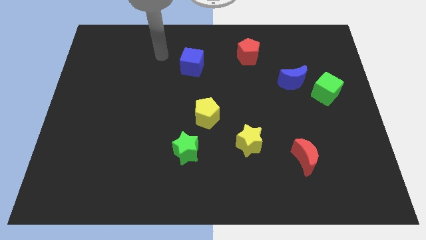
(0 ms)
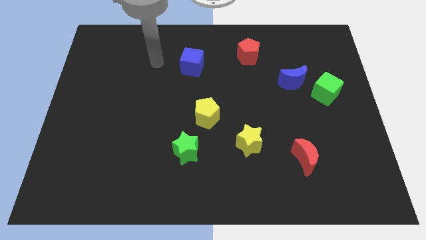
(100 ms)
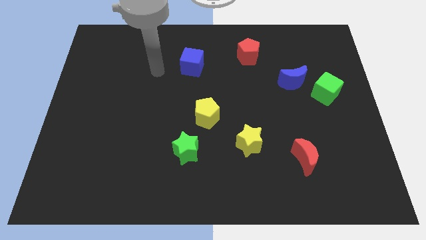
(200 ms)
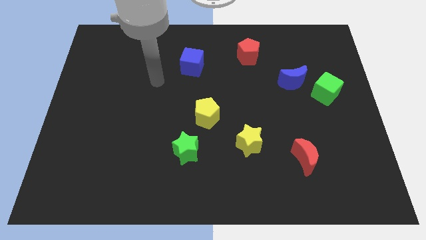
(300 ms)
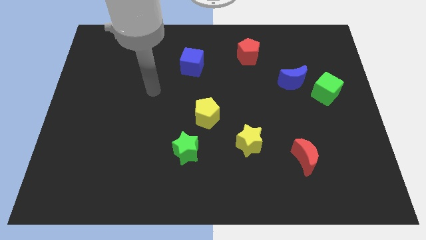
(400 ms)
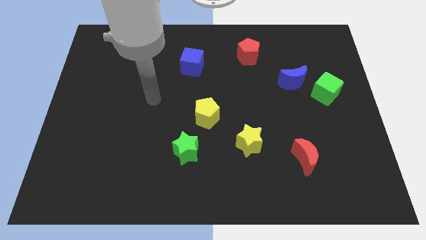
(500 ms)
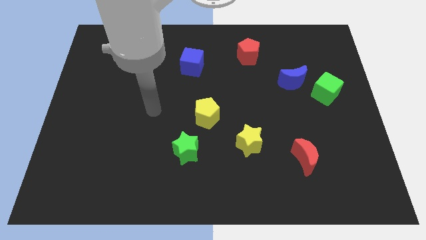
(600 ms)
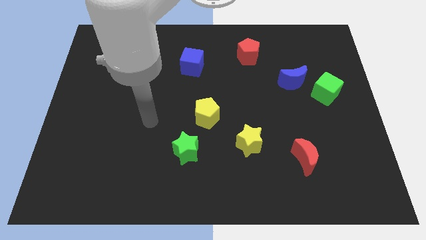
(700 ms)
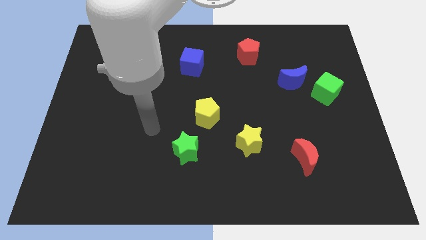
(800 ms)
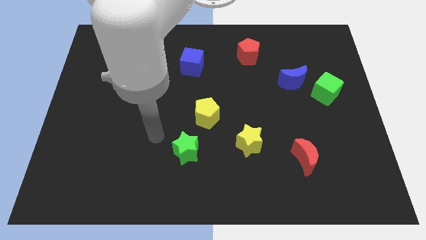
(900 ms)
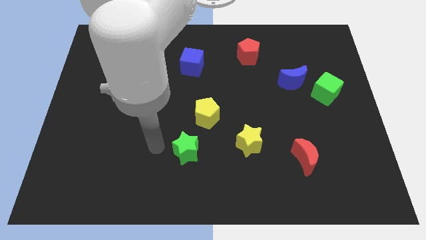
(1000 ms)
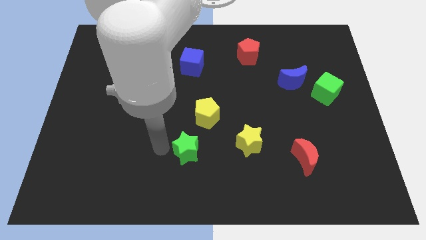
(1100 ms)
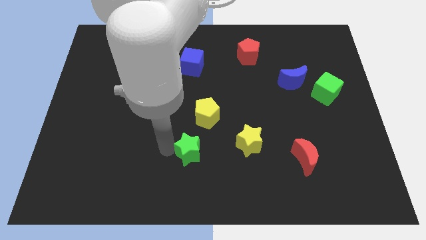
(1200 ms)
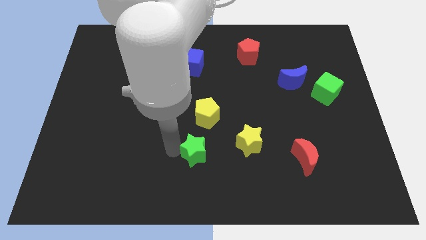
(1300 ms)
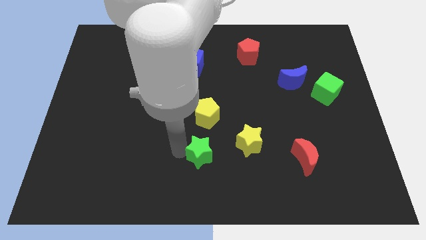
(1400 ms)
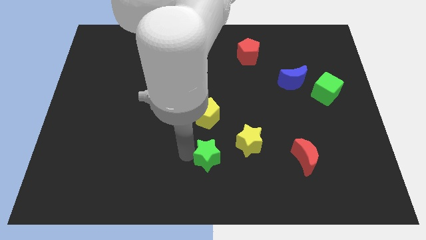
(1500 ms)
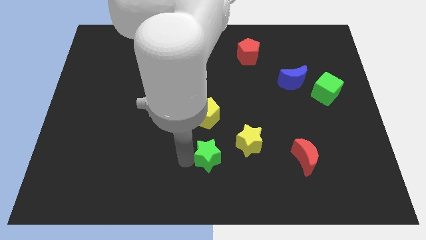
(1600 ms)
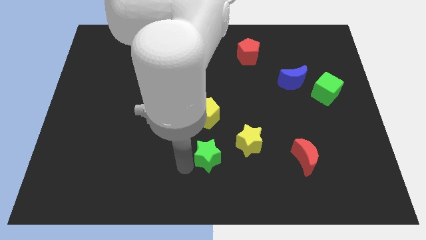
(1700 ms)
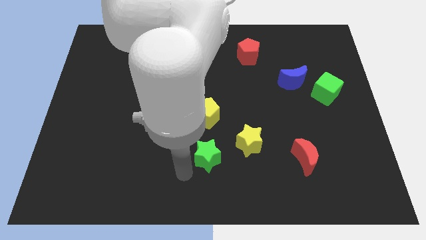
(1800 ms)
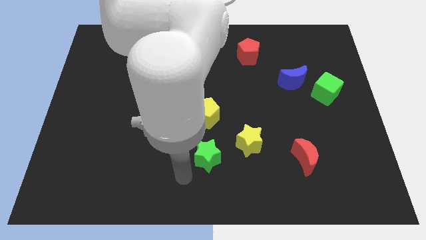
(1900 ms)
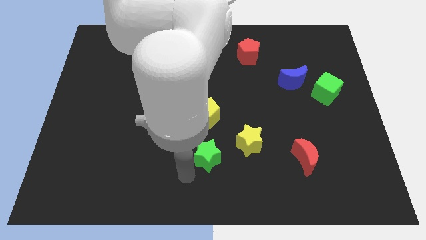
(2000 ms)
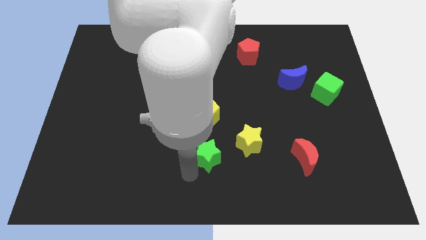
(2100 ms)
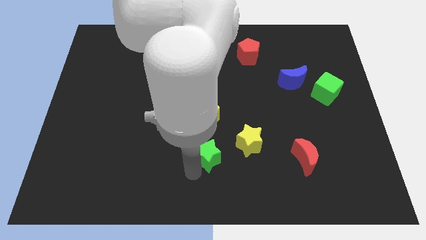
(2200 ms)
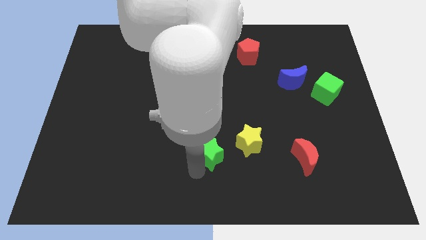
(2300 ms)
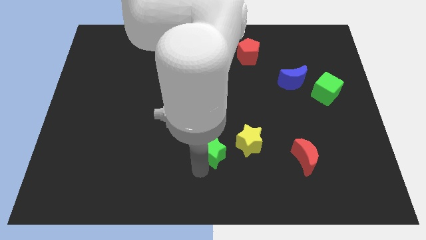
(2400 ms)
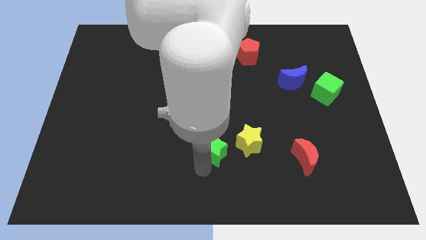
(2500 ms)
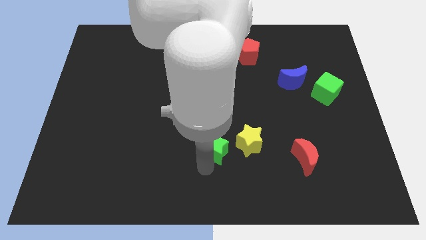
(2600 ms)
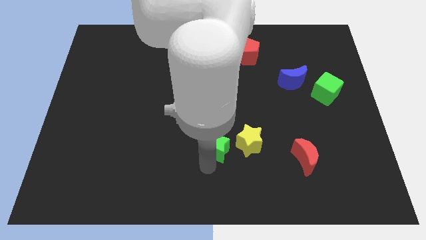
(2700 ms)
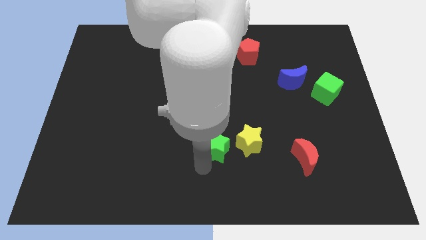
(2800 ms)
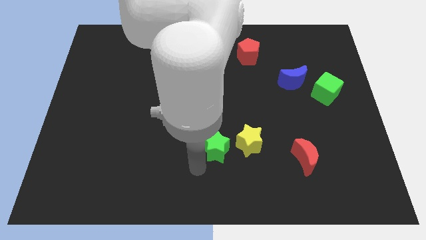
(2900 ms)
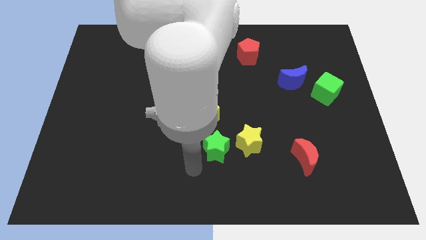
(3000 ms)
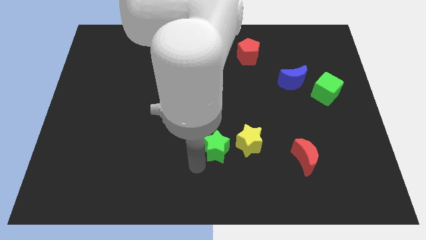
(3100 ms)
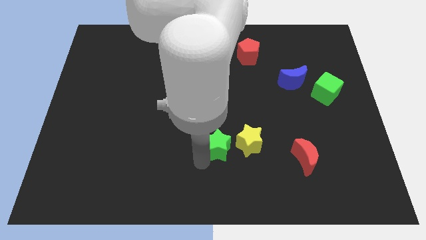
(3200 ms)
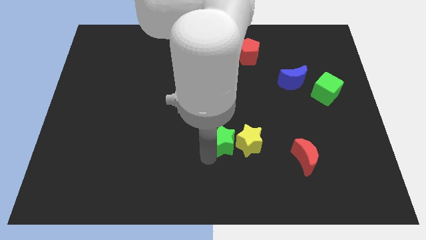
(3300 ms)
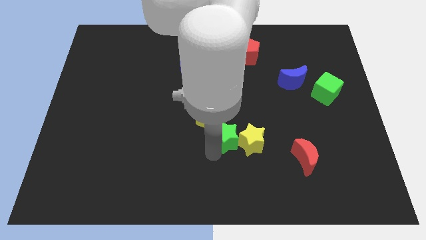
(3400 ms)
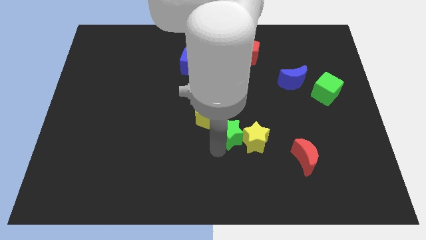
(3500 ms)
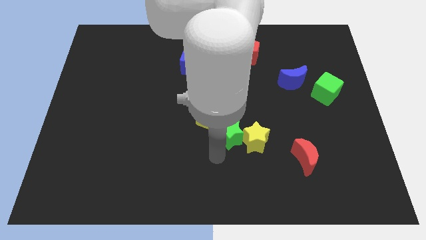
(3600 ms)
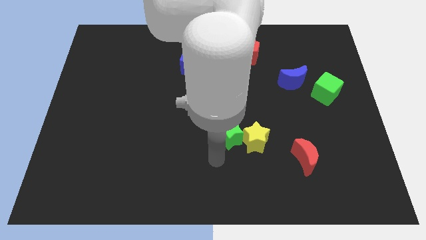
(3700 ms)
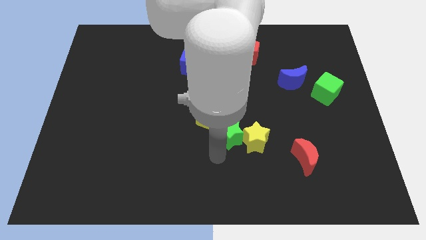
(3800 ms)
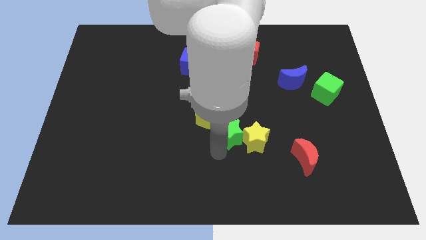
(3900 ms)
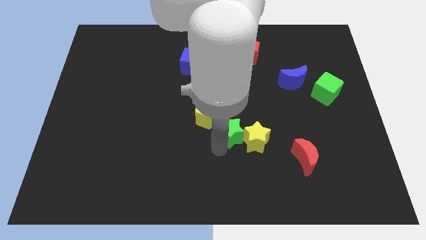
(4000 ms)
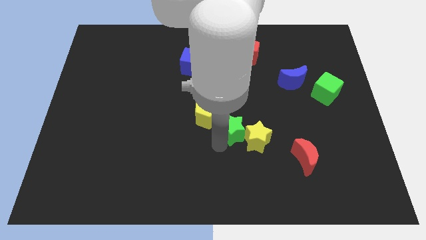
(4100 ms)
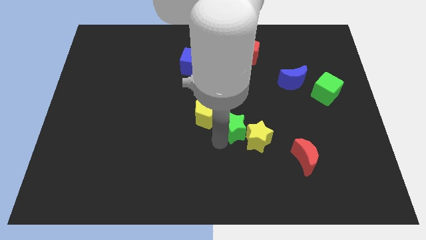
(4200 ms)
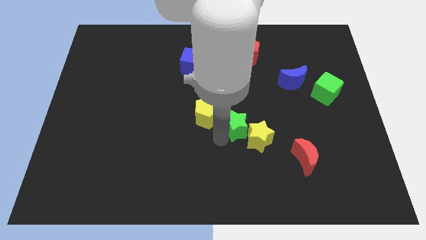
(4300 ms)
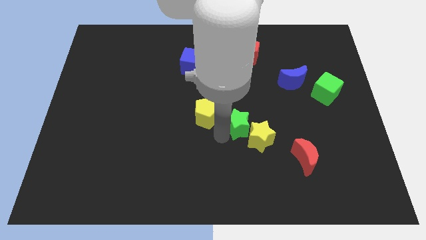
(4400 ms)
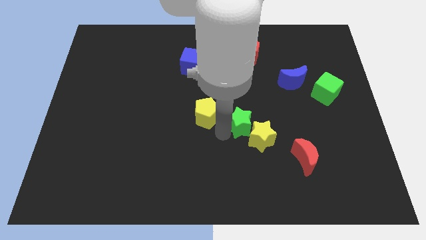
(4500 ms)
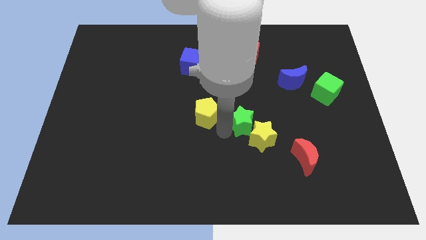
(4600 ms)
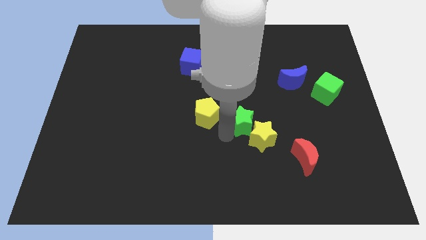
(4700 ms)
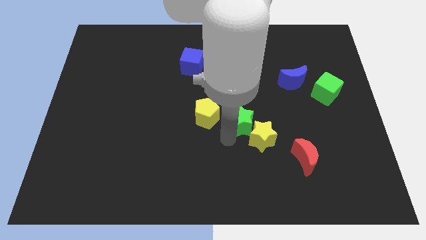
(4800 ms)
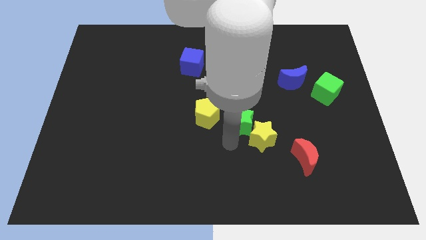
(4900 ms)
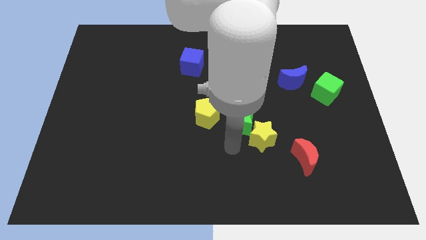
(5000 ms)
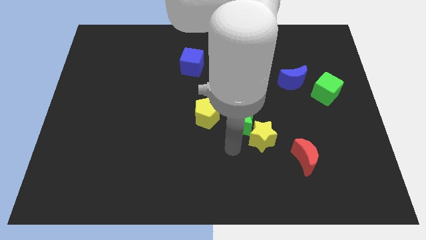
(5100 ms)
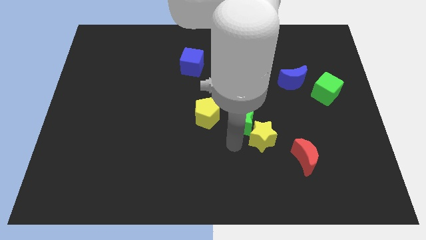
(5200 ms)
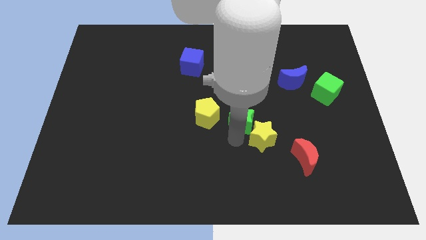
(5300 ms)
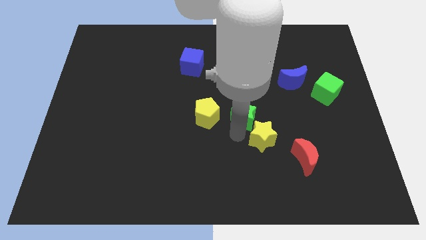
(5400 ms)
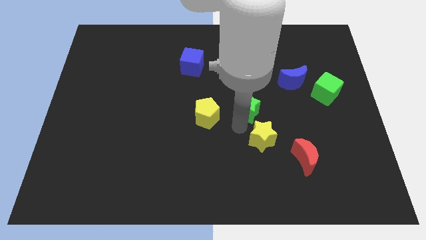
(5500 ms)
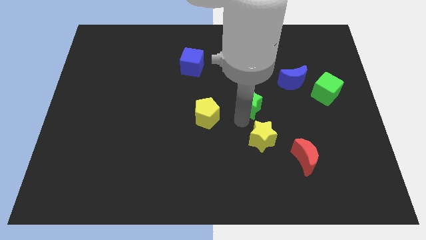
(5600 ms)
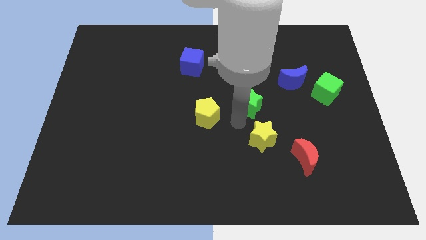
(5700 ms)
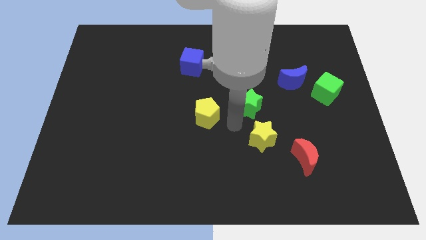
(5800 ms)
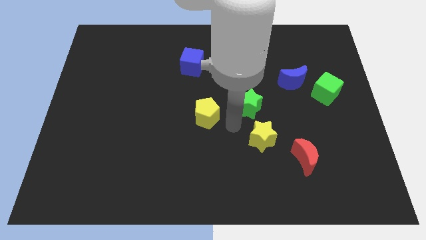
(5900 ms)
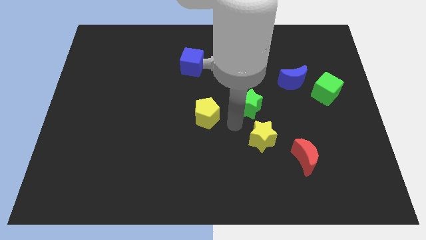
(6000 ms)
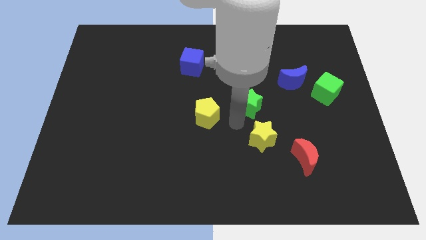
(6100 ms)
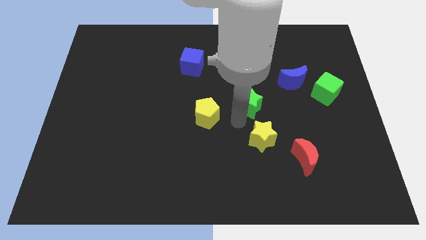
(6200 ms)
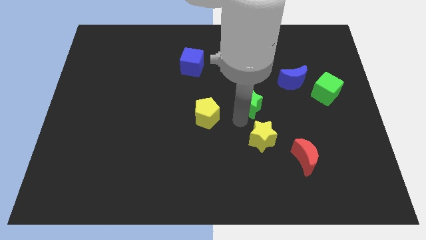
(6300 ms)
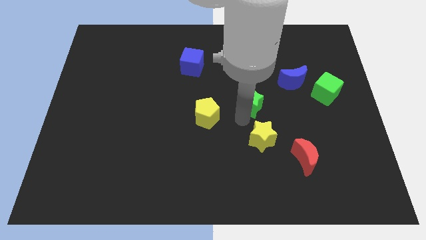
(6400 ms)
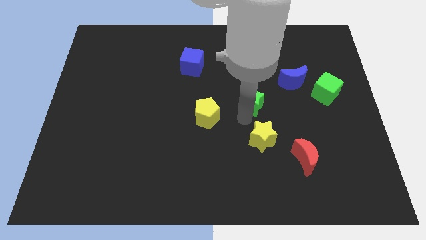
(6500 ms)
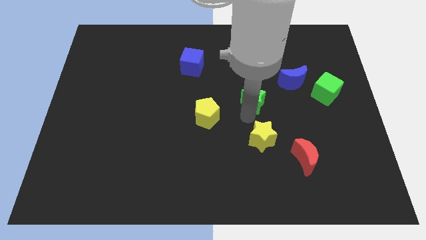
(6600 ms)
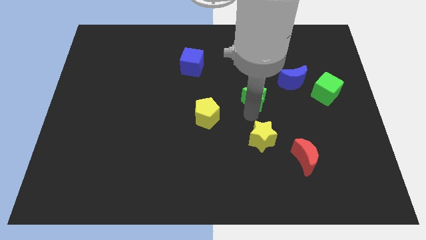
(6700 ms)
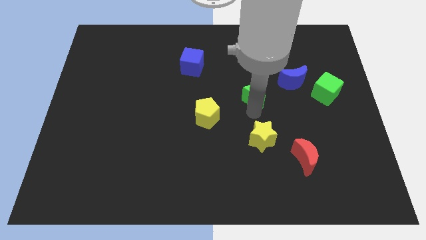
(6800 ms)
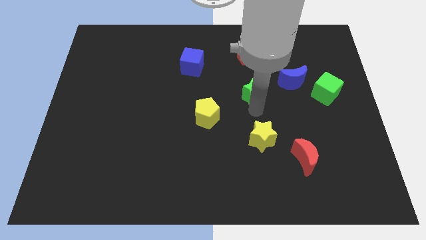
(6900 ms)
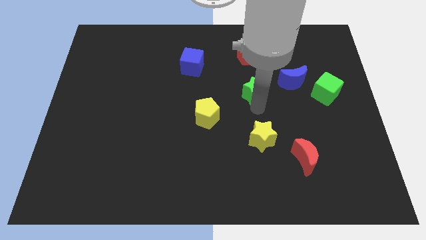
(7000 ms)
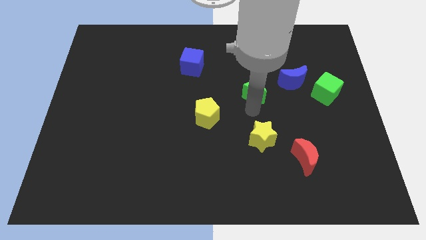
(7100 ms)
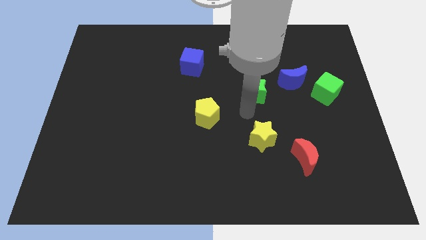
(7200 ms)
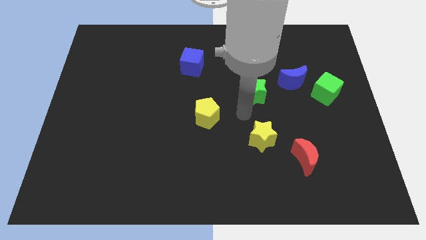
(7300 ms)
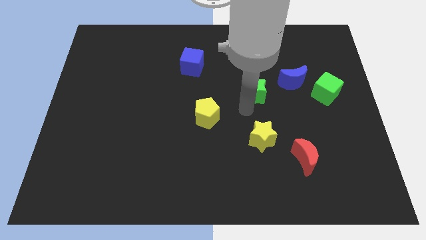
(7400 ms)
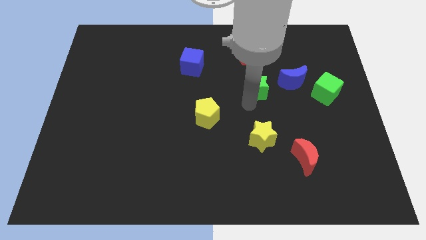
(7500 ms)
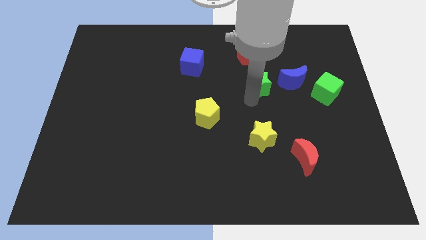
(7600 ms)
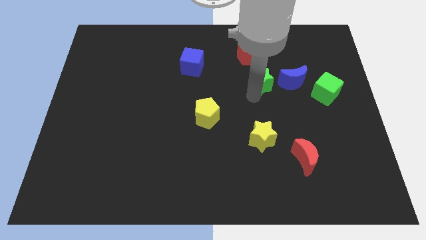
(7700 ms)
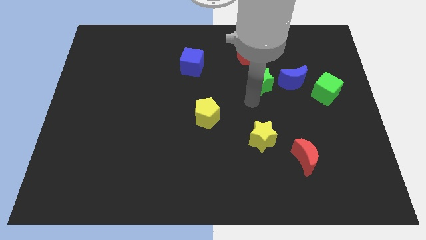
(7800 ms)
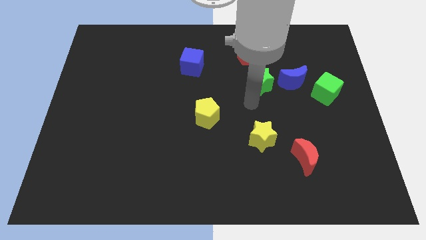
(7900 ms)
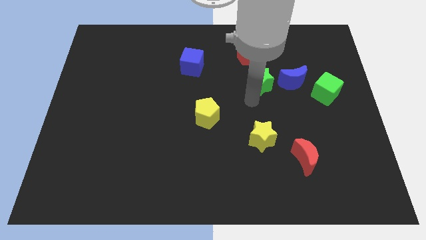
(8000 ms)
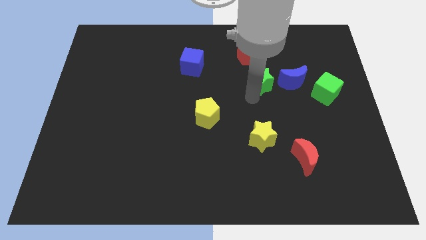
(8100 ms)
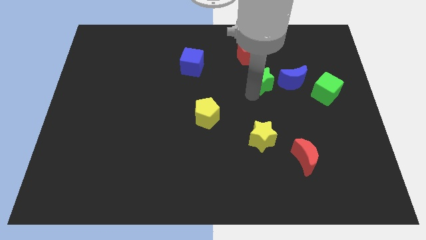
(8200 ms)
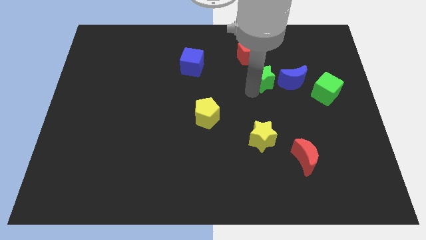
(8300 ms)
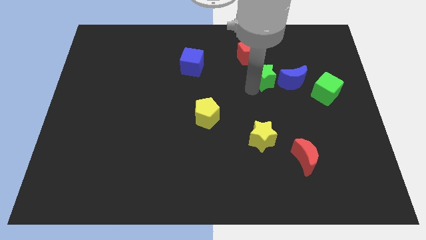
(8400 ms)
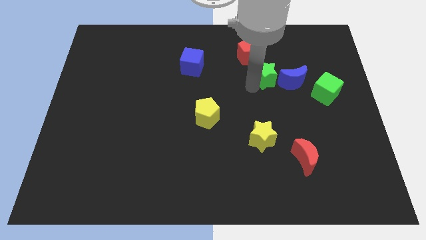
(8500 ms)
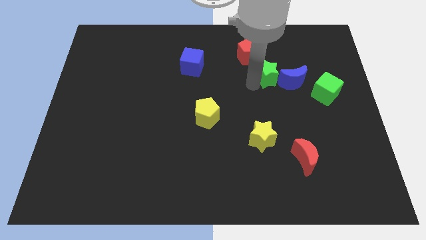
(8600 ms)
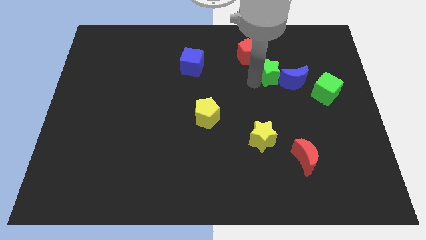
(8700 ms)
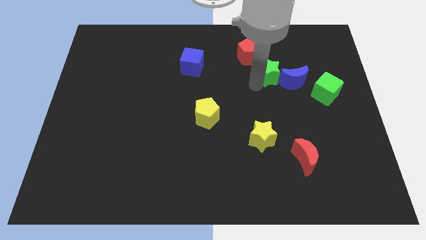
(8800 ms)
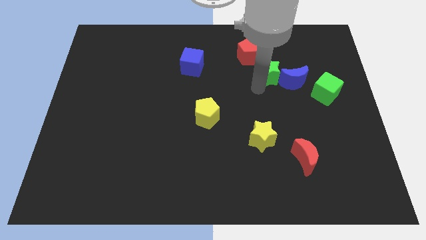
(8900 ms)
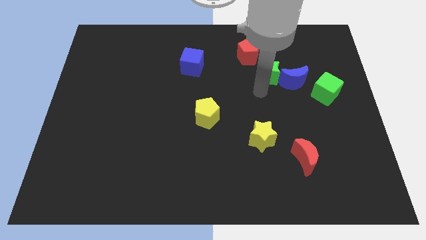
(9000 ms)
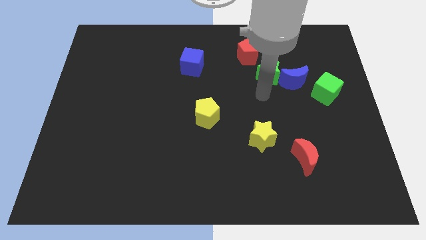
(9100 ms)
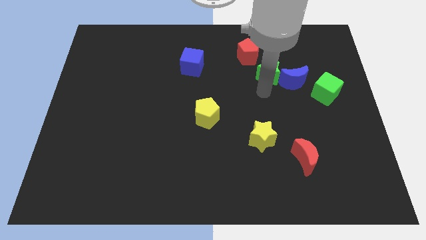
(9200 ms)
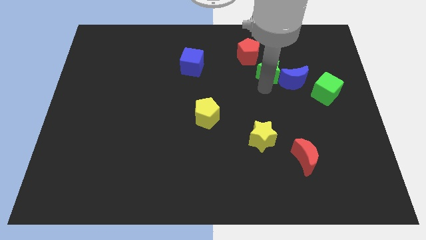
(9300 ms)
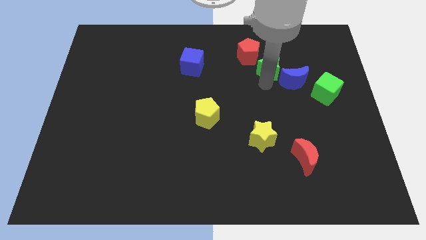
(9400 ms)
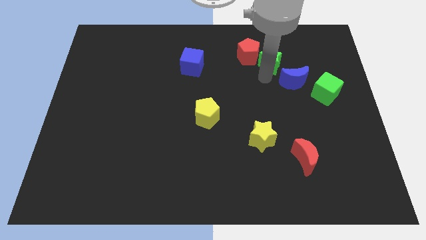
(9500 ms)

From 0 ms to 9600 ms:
slide the green star just right of the red pentagon
